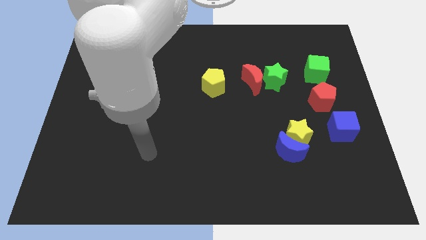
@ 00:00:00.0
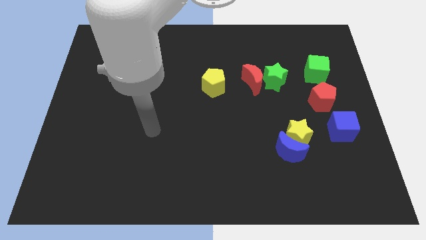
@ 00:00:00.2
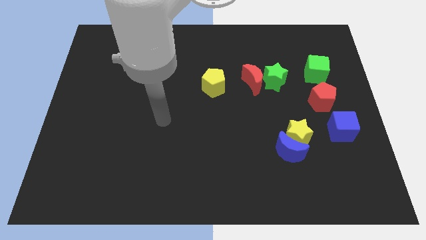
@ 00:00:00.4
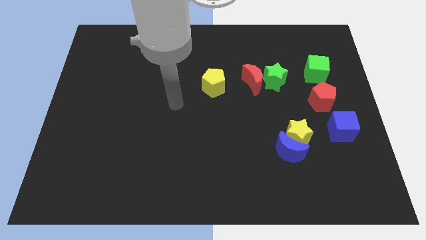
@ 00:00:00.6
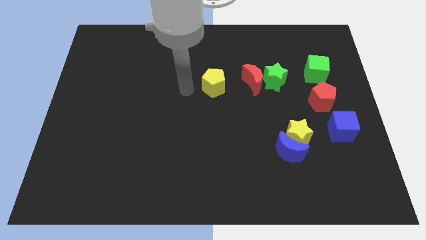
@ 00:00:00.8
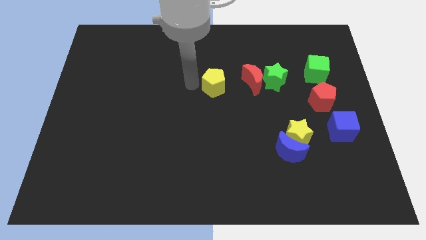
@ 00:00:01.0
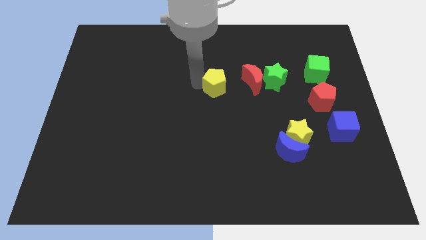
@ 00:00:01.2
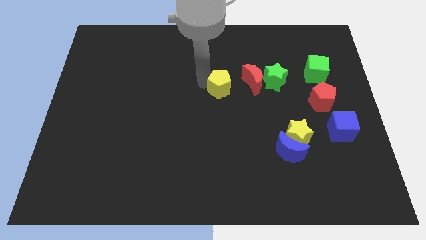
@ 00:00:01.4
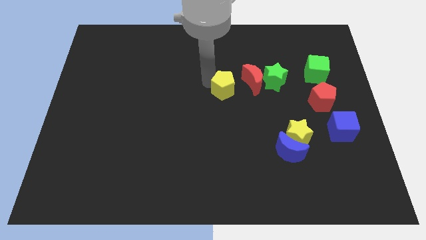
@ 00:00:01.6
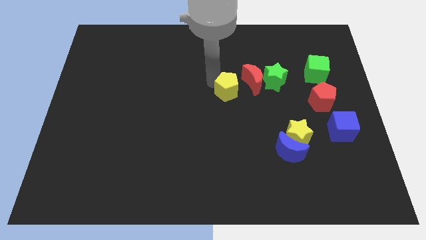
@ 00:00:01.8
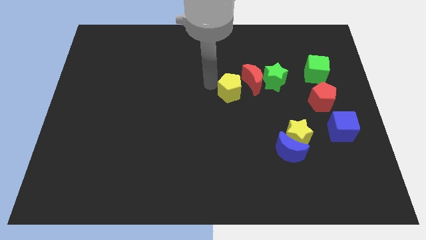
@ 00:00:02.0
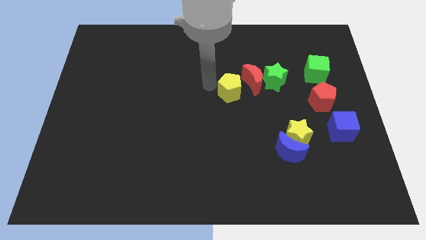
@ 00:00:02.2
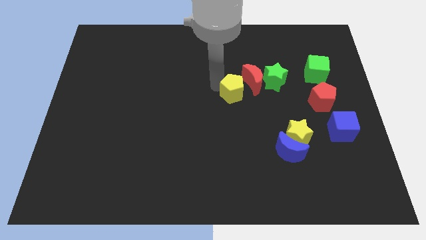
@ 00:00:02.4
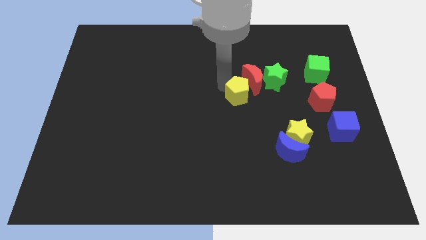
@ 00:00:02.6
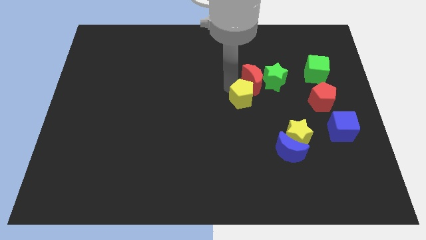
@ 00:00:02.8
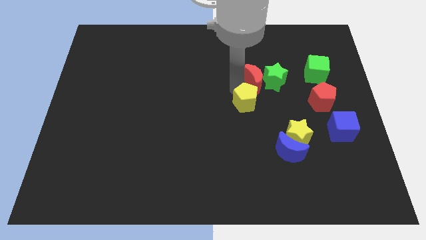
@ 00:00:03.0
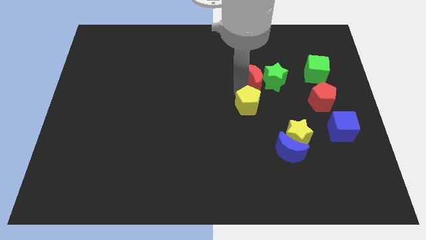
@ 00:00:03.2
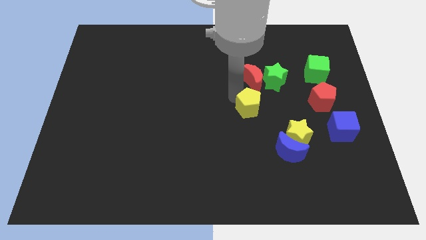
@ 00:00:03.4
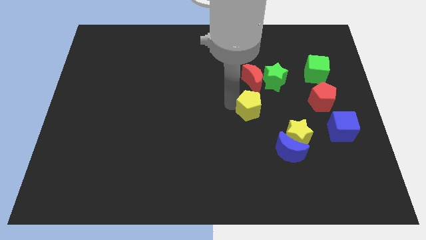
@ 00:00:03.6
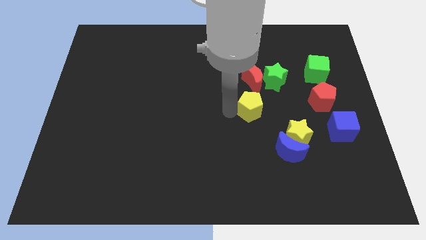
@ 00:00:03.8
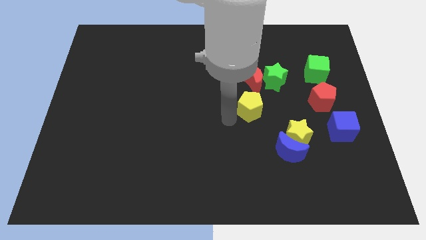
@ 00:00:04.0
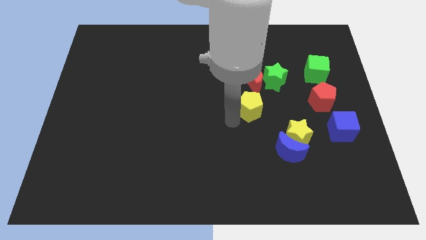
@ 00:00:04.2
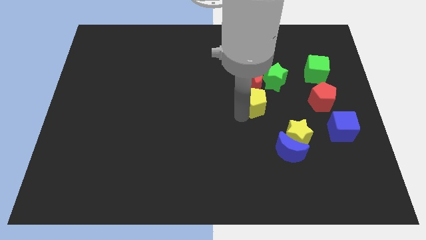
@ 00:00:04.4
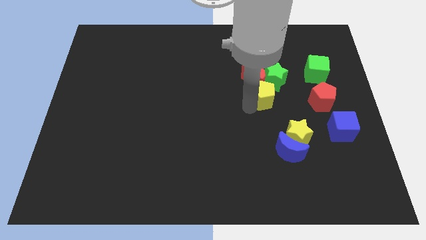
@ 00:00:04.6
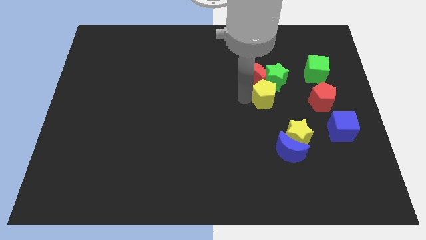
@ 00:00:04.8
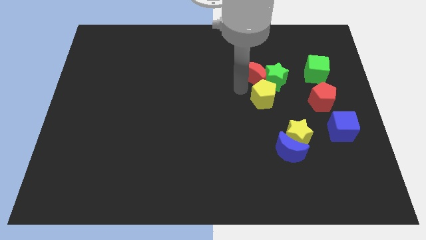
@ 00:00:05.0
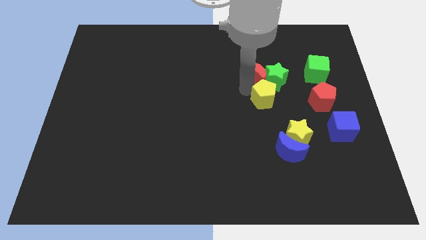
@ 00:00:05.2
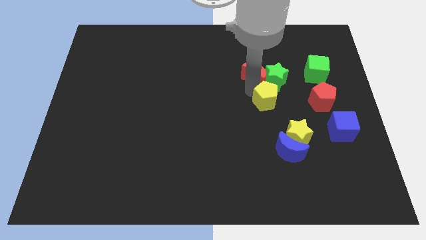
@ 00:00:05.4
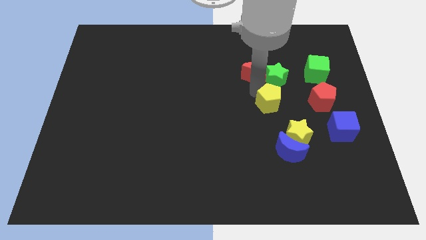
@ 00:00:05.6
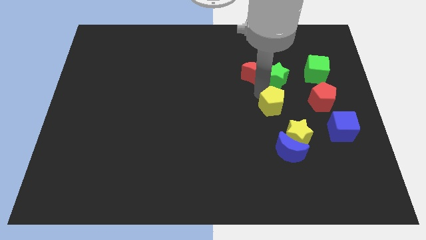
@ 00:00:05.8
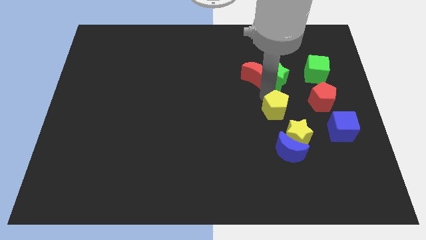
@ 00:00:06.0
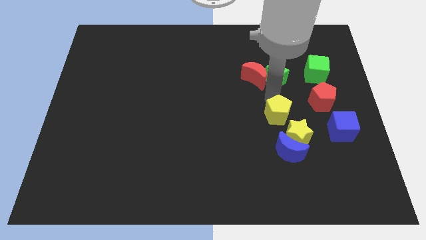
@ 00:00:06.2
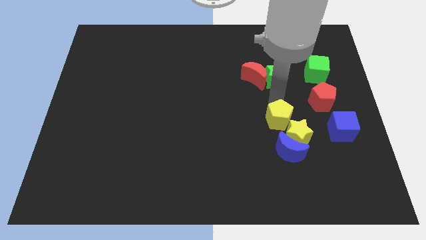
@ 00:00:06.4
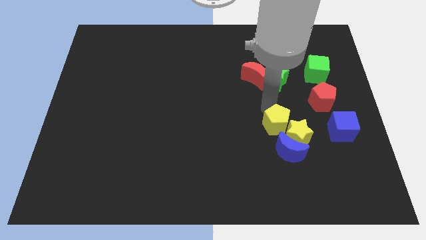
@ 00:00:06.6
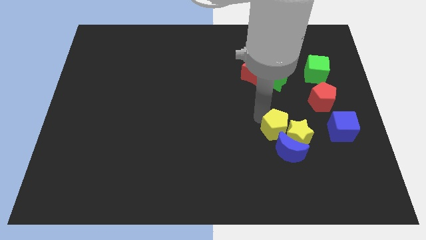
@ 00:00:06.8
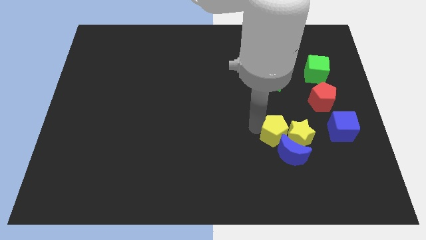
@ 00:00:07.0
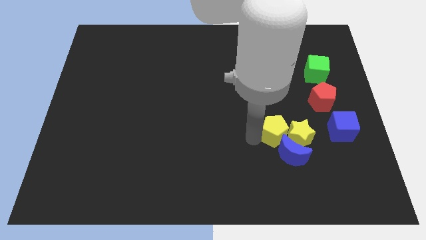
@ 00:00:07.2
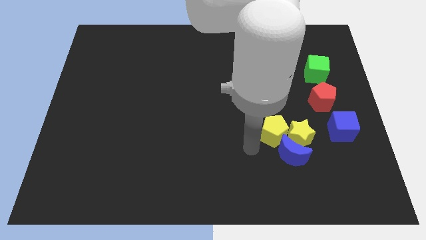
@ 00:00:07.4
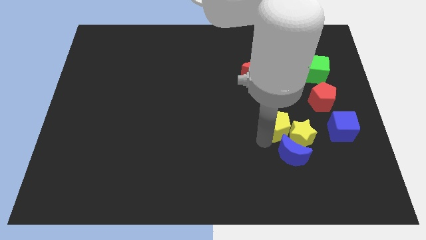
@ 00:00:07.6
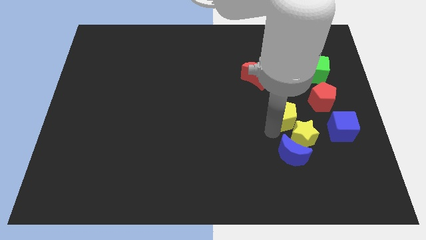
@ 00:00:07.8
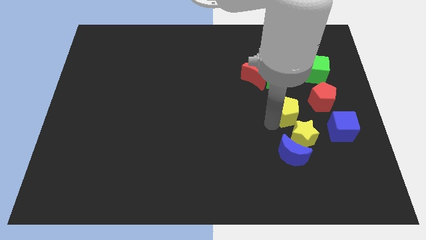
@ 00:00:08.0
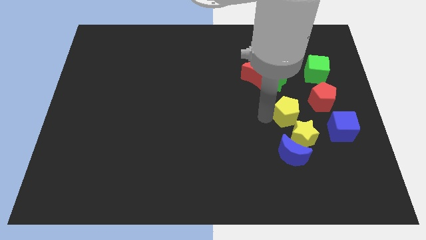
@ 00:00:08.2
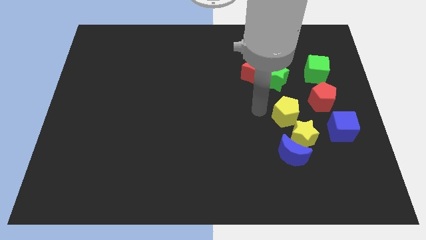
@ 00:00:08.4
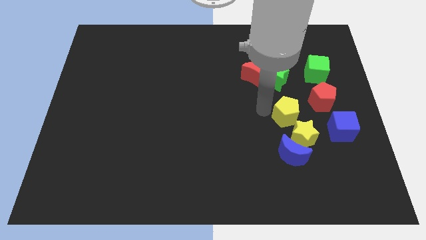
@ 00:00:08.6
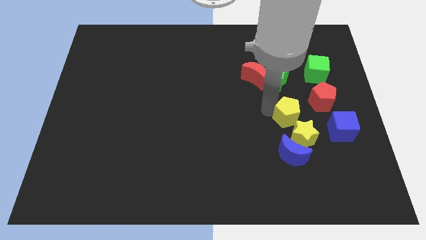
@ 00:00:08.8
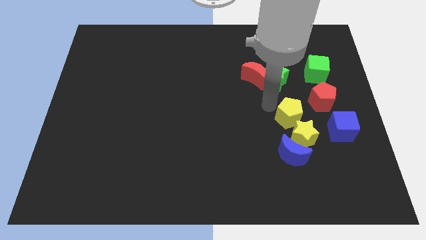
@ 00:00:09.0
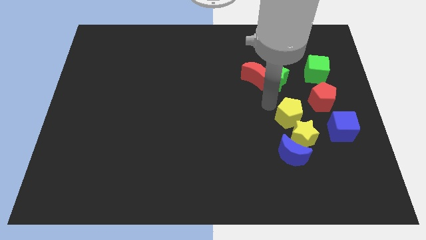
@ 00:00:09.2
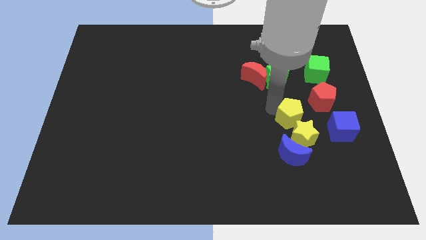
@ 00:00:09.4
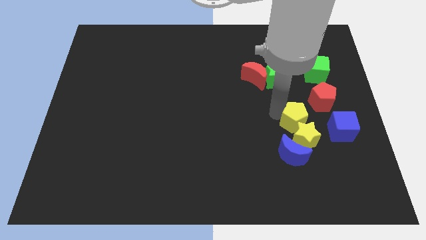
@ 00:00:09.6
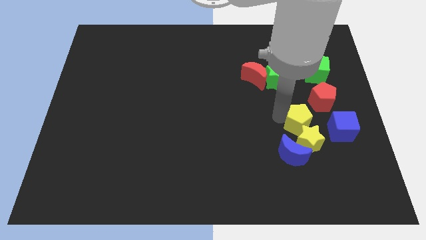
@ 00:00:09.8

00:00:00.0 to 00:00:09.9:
slide the yellow pentagon down and right diagonally

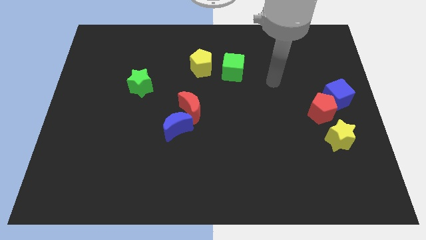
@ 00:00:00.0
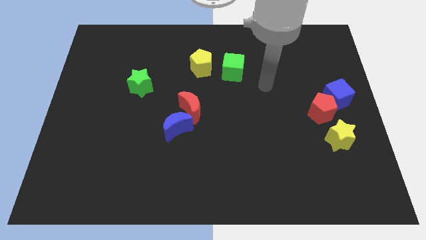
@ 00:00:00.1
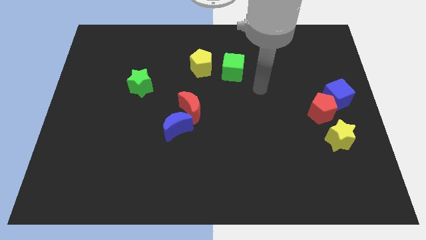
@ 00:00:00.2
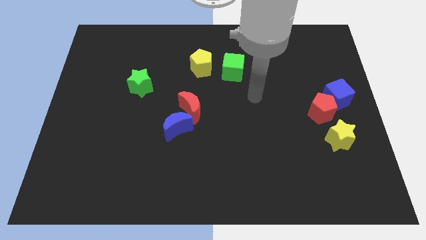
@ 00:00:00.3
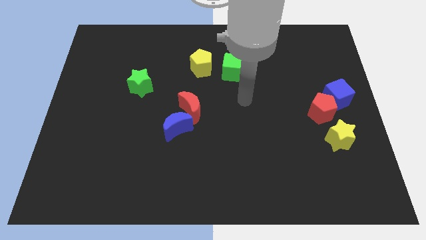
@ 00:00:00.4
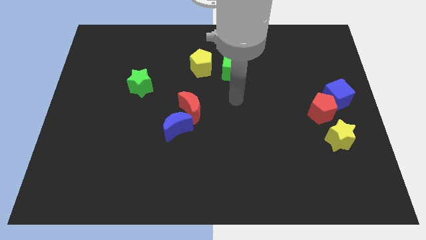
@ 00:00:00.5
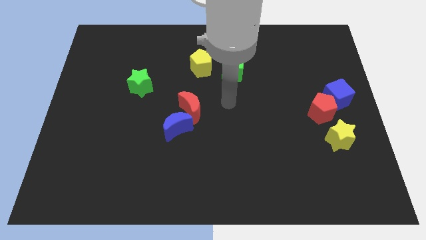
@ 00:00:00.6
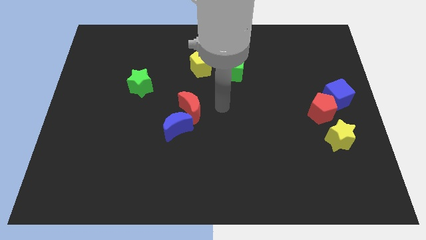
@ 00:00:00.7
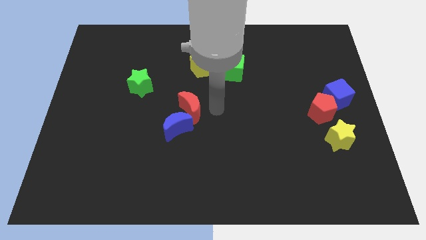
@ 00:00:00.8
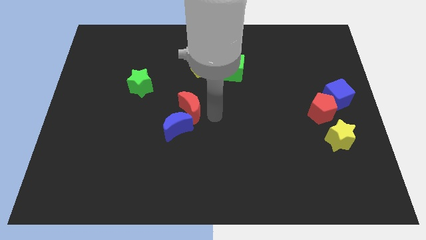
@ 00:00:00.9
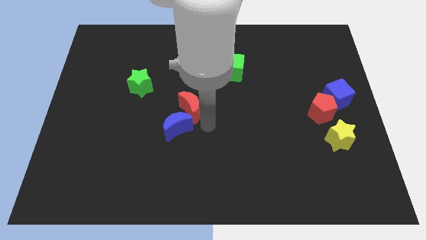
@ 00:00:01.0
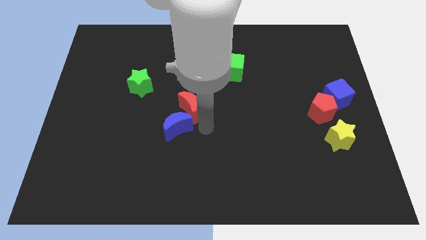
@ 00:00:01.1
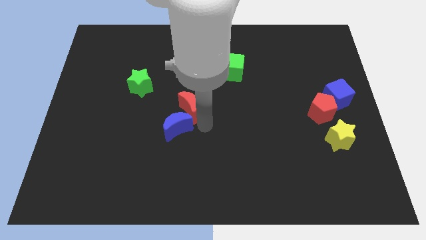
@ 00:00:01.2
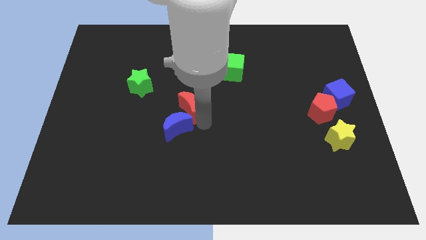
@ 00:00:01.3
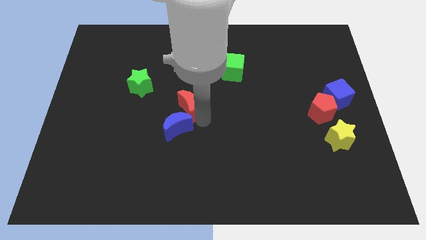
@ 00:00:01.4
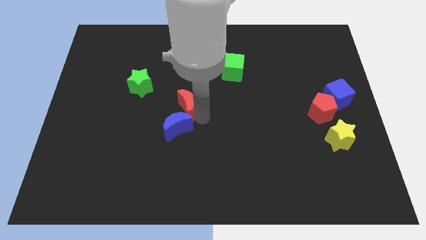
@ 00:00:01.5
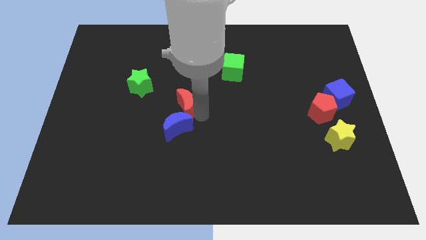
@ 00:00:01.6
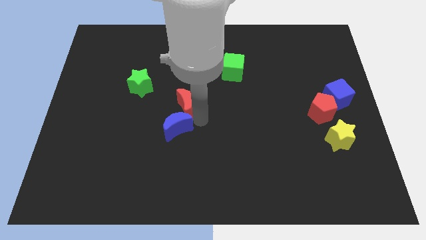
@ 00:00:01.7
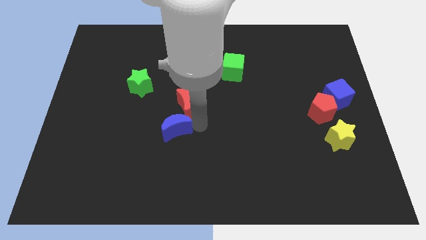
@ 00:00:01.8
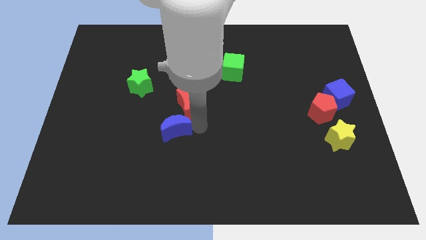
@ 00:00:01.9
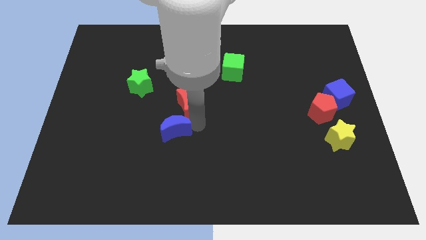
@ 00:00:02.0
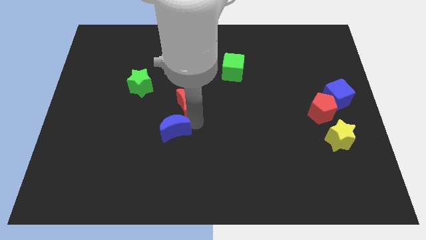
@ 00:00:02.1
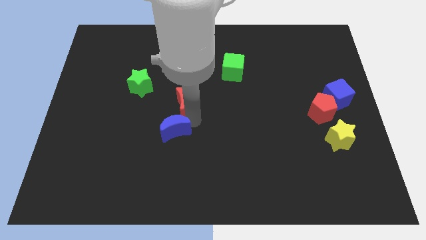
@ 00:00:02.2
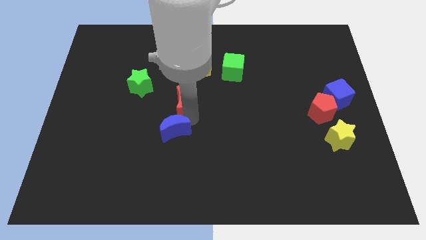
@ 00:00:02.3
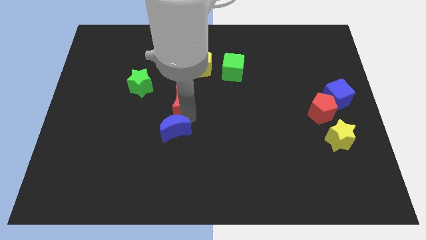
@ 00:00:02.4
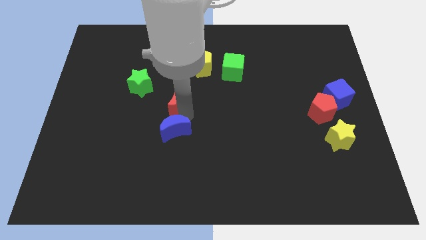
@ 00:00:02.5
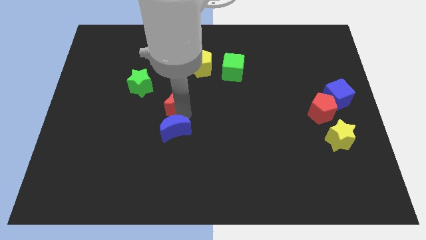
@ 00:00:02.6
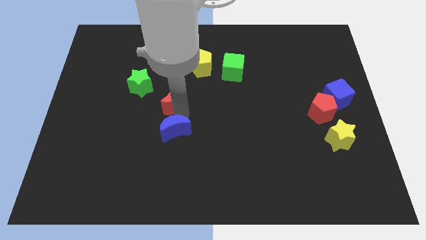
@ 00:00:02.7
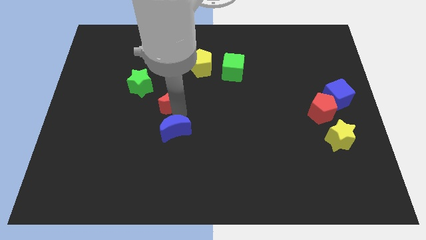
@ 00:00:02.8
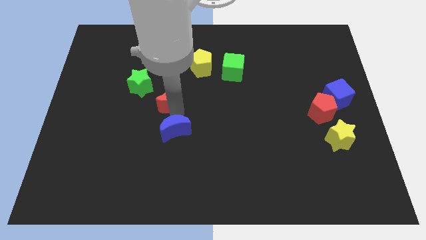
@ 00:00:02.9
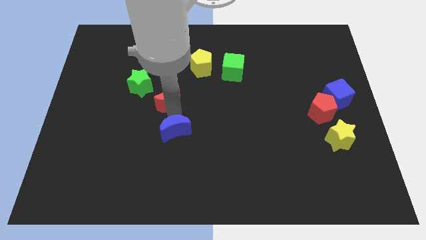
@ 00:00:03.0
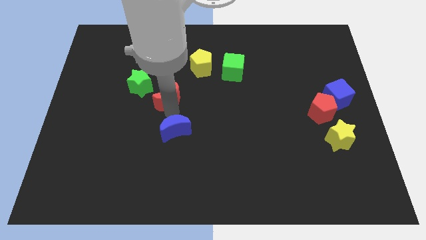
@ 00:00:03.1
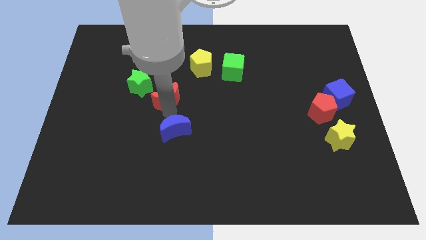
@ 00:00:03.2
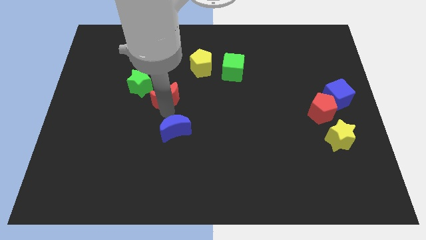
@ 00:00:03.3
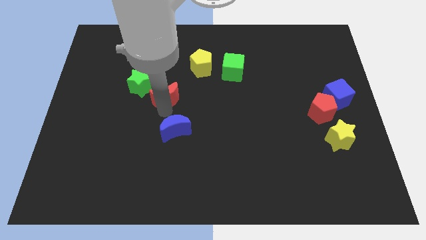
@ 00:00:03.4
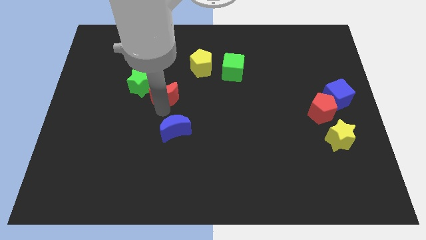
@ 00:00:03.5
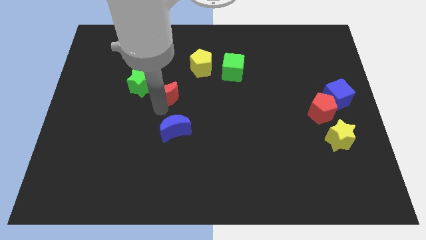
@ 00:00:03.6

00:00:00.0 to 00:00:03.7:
slightly move the red moon upwards and to the left diagonally

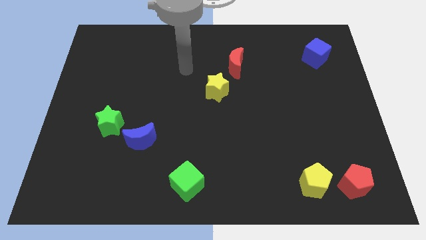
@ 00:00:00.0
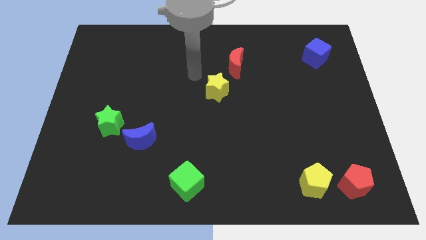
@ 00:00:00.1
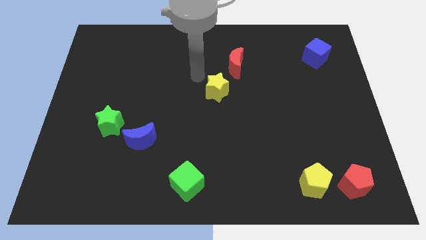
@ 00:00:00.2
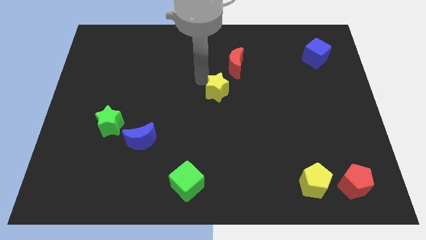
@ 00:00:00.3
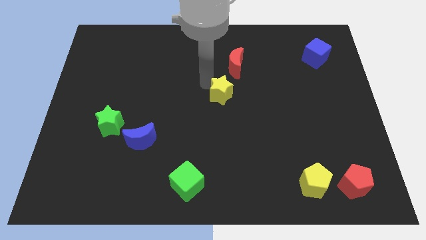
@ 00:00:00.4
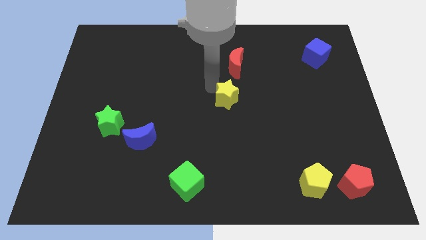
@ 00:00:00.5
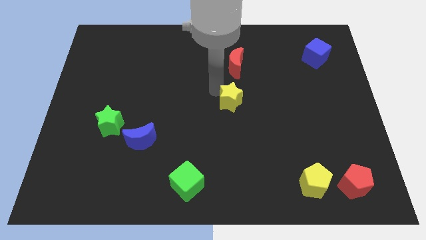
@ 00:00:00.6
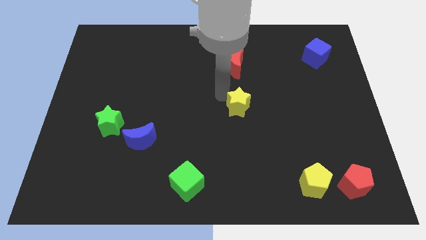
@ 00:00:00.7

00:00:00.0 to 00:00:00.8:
push the yellow star slightly down and right diagonally
